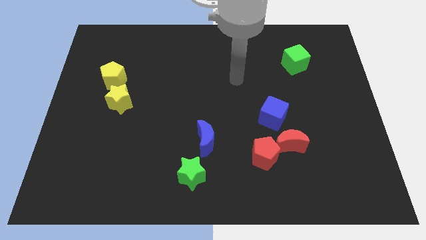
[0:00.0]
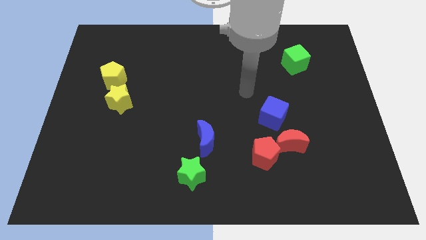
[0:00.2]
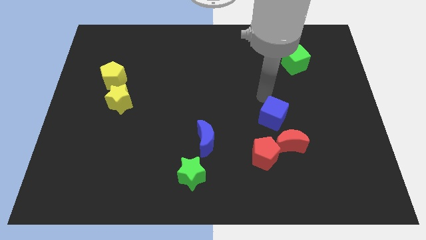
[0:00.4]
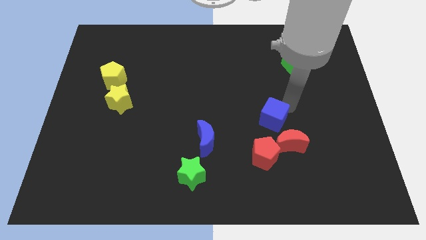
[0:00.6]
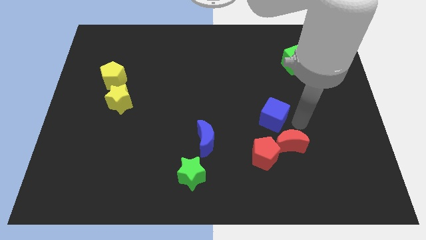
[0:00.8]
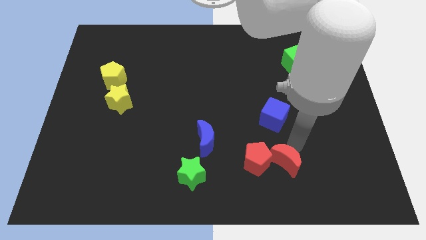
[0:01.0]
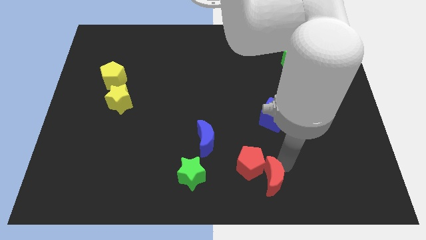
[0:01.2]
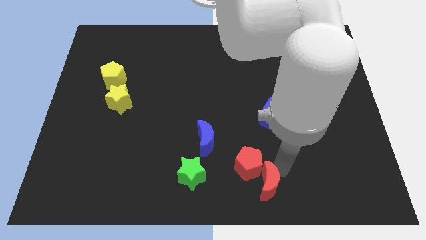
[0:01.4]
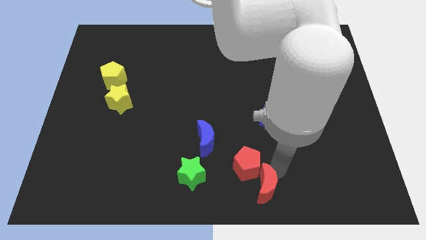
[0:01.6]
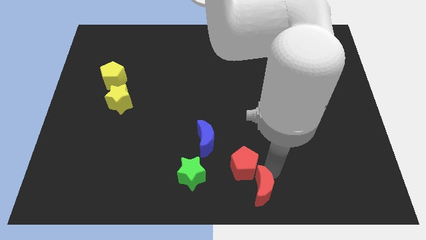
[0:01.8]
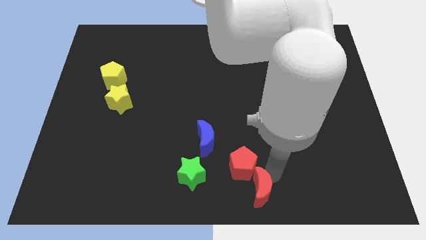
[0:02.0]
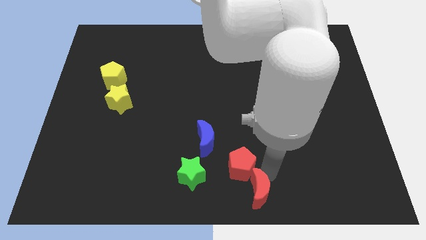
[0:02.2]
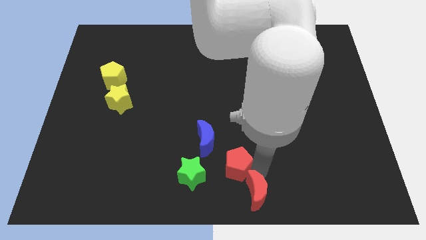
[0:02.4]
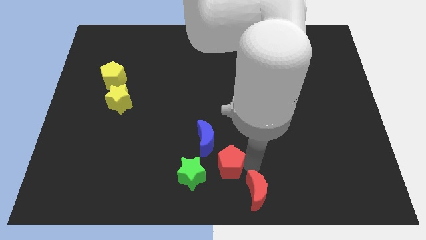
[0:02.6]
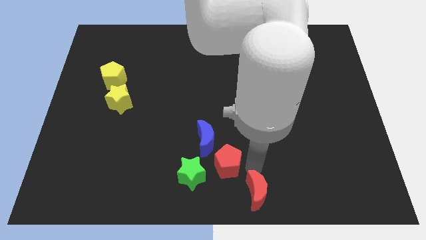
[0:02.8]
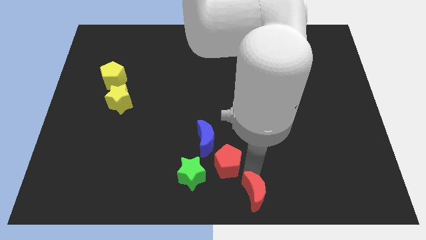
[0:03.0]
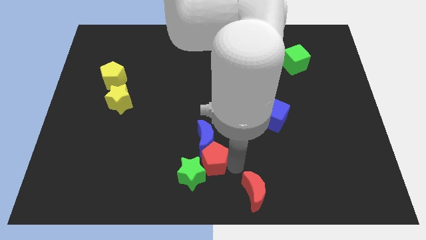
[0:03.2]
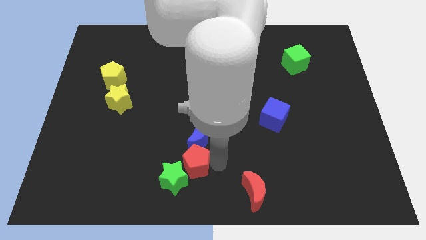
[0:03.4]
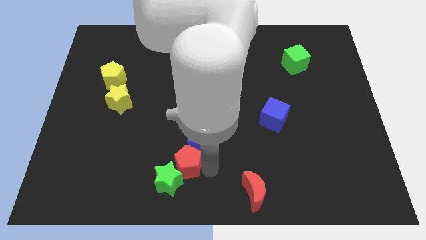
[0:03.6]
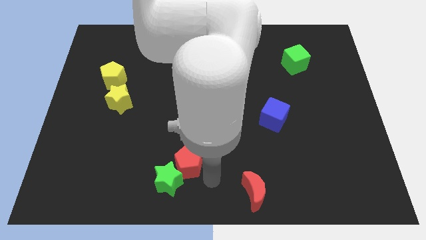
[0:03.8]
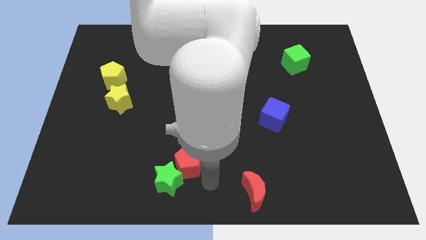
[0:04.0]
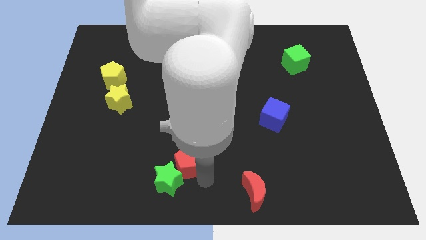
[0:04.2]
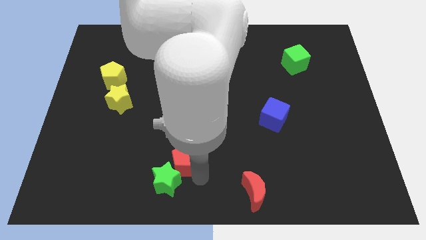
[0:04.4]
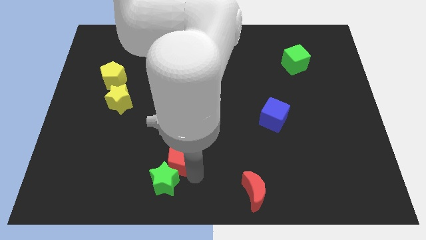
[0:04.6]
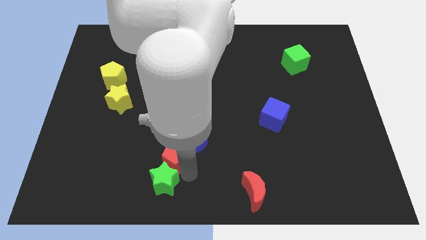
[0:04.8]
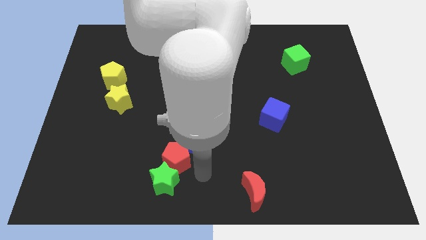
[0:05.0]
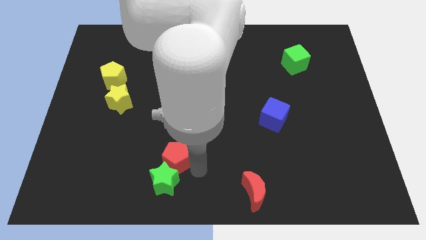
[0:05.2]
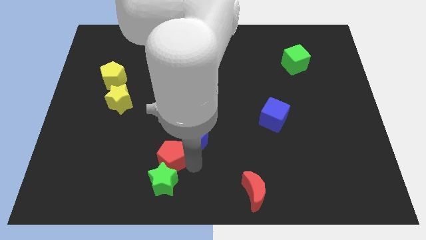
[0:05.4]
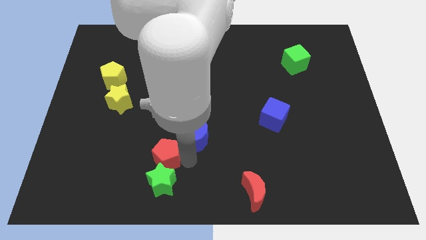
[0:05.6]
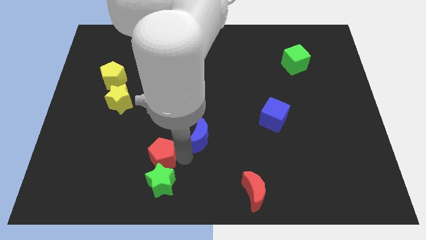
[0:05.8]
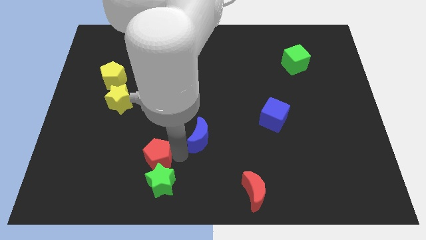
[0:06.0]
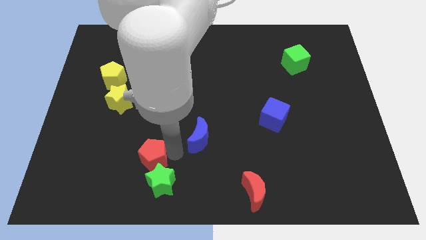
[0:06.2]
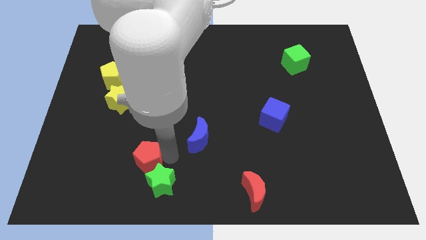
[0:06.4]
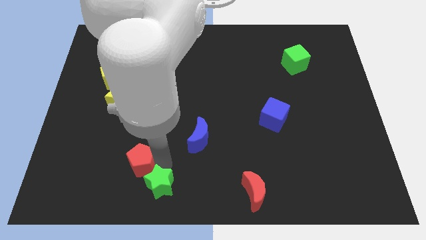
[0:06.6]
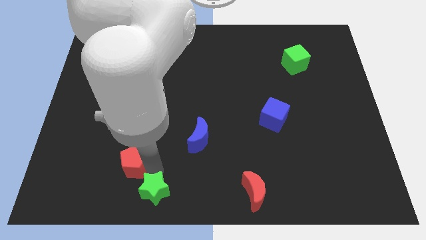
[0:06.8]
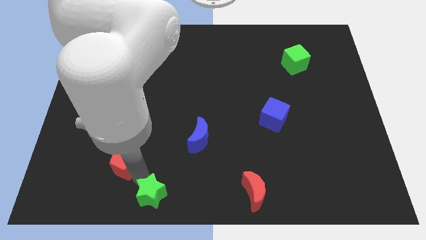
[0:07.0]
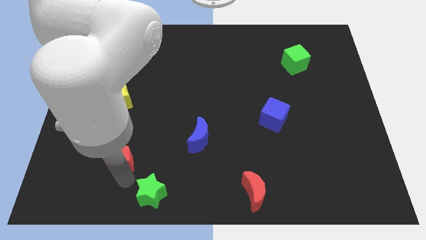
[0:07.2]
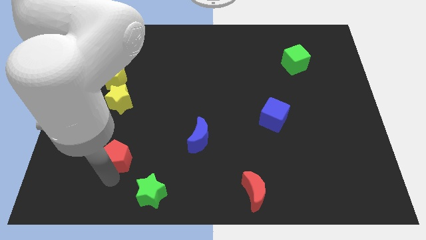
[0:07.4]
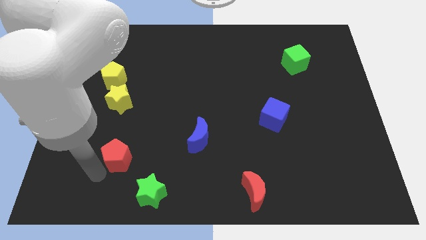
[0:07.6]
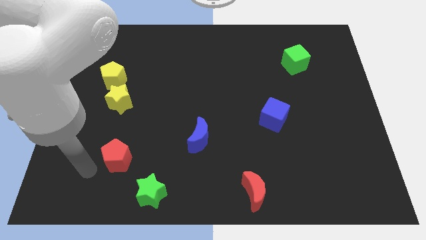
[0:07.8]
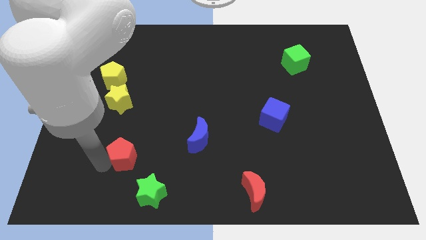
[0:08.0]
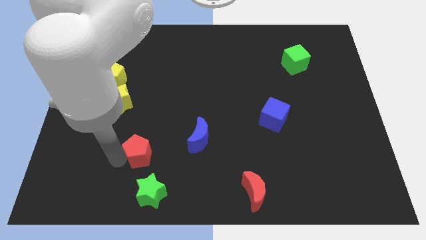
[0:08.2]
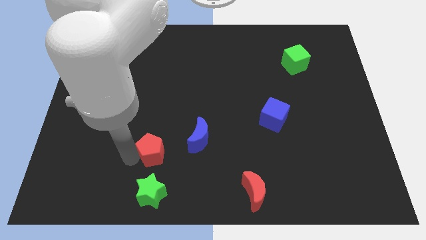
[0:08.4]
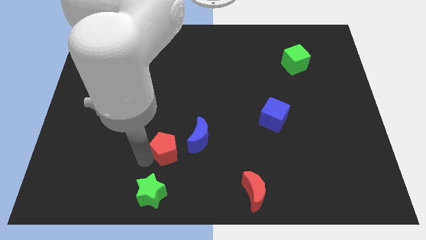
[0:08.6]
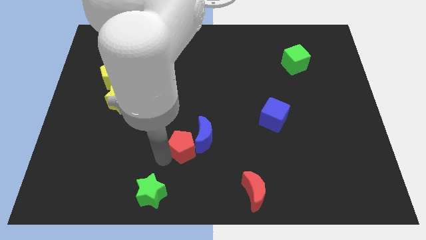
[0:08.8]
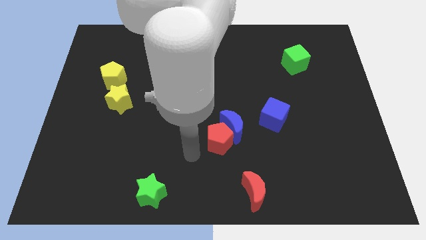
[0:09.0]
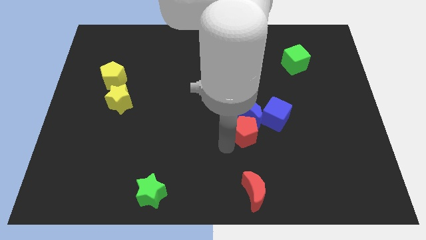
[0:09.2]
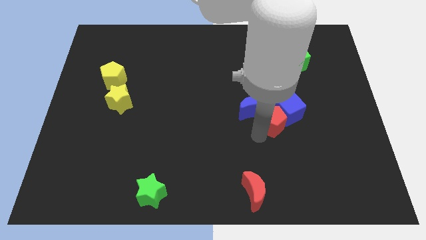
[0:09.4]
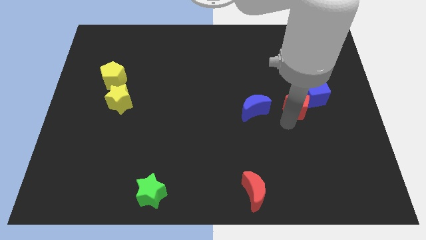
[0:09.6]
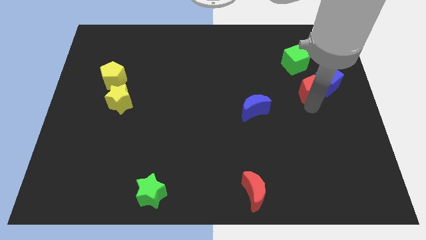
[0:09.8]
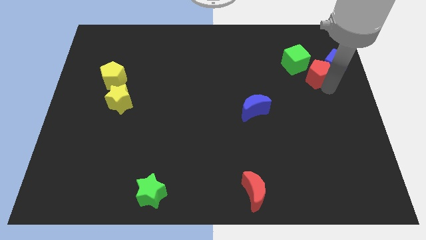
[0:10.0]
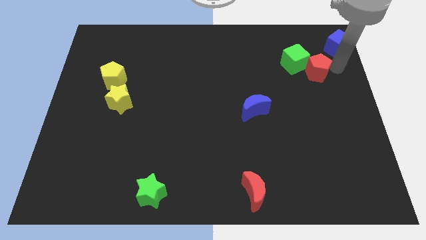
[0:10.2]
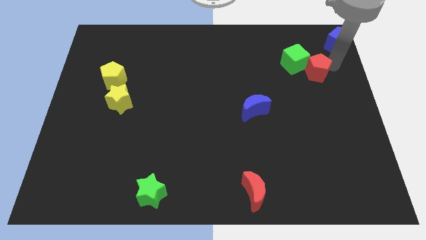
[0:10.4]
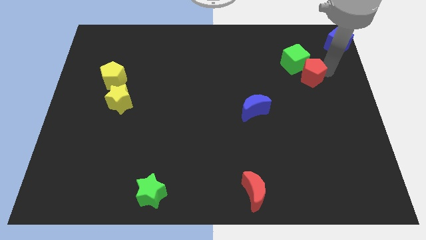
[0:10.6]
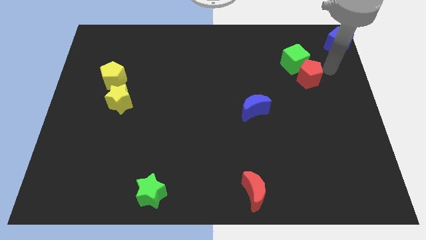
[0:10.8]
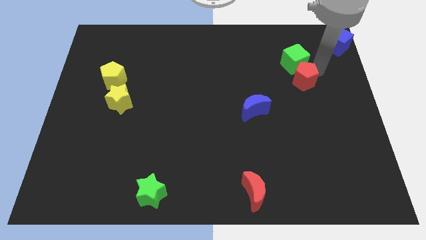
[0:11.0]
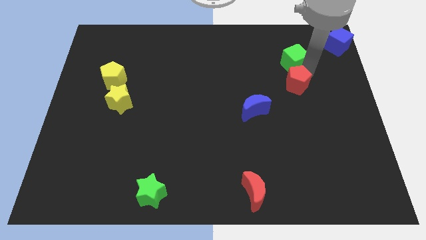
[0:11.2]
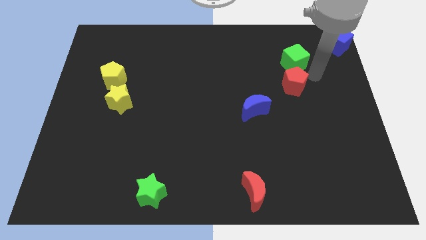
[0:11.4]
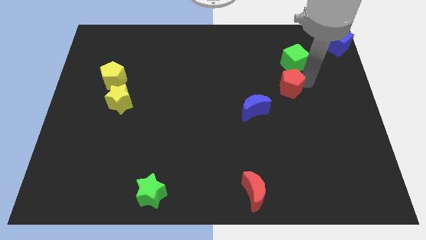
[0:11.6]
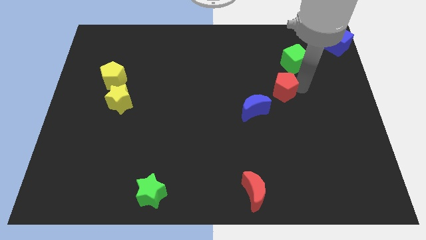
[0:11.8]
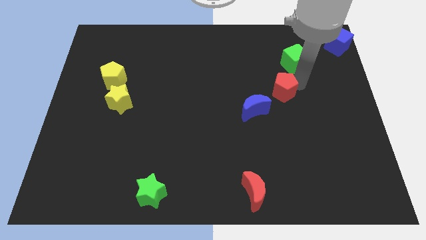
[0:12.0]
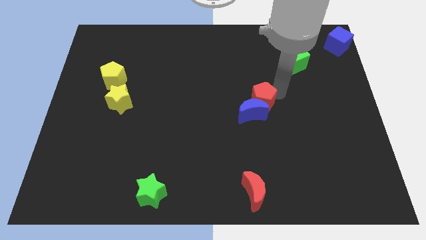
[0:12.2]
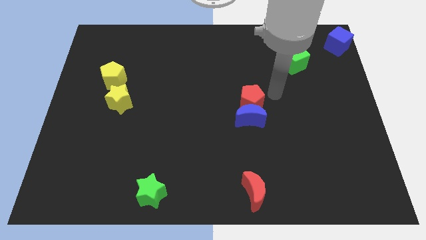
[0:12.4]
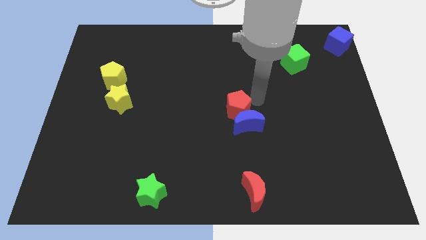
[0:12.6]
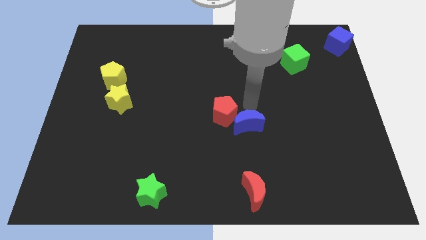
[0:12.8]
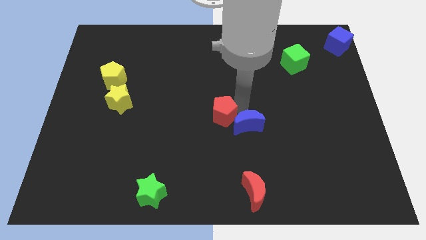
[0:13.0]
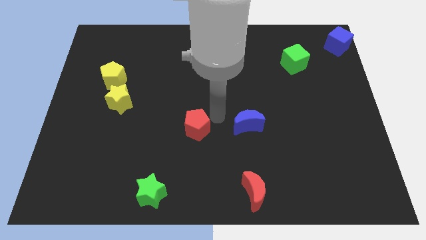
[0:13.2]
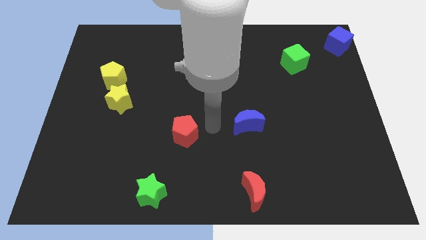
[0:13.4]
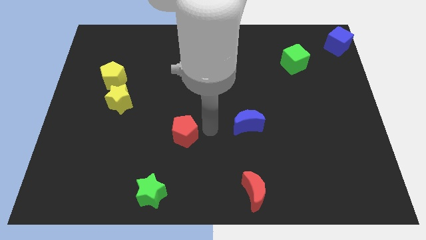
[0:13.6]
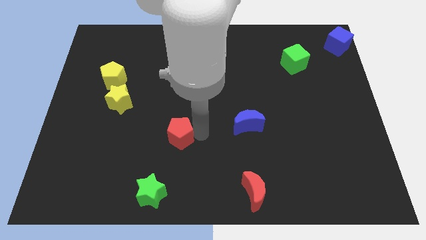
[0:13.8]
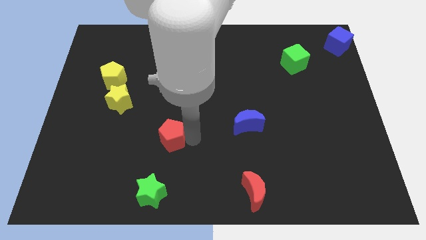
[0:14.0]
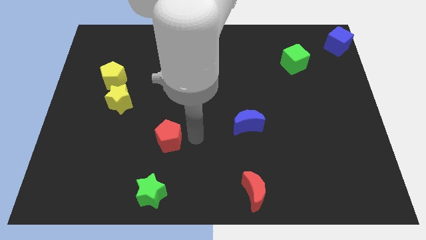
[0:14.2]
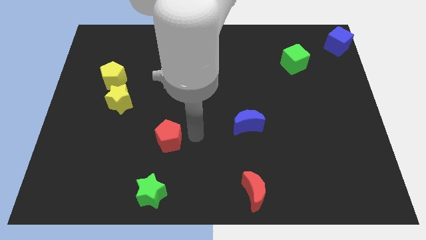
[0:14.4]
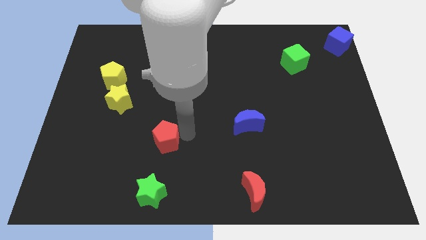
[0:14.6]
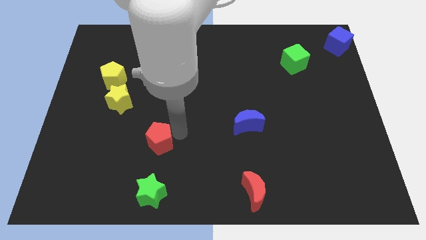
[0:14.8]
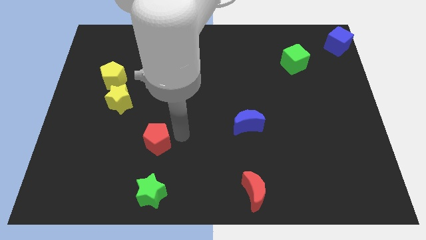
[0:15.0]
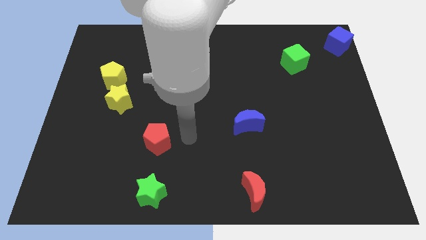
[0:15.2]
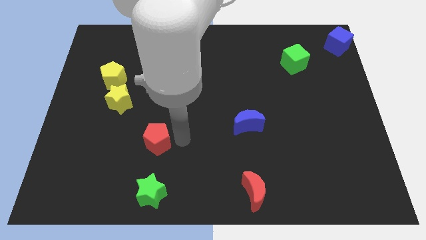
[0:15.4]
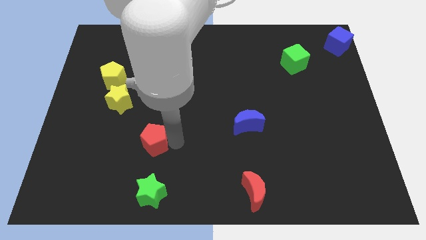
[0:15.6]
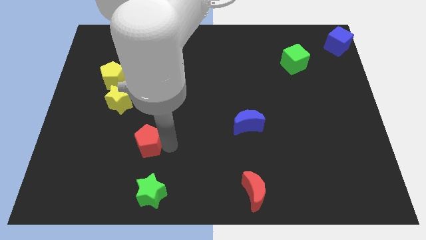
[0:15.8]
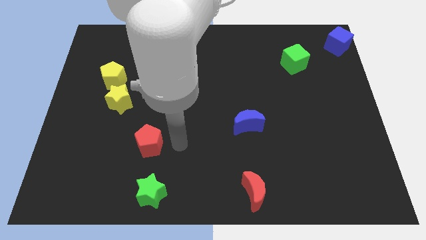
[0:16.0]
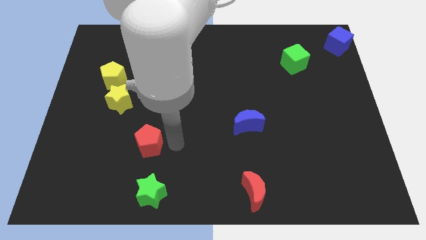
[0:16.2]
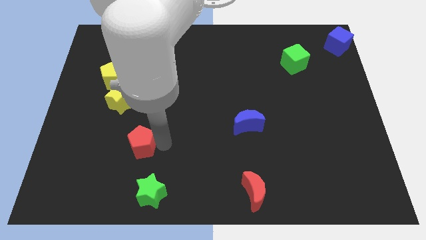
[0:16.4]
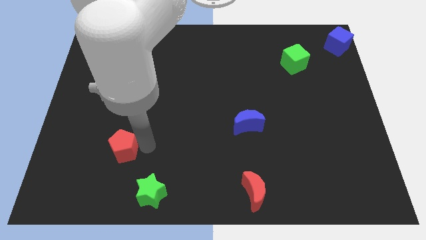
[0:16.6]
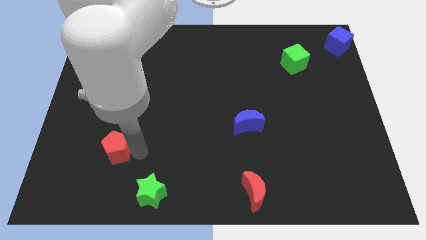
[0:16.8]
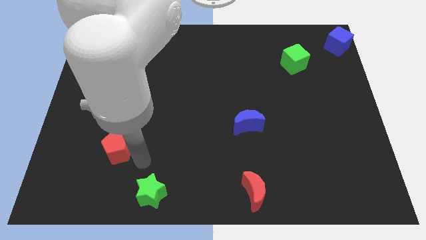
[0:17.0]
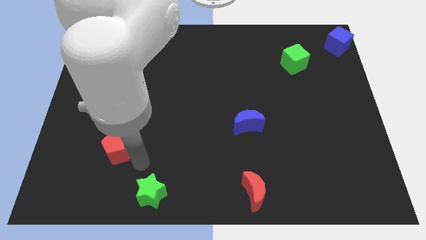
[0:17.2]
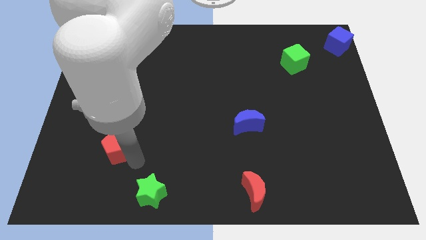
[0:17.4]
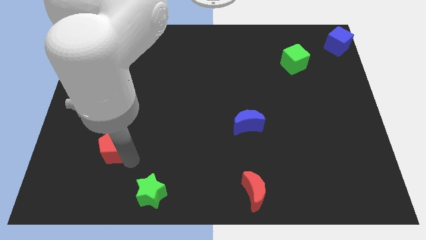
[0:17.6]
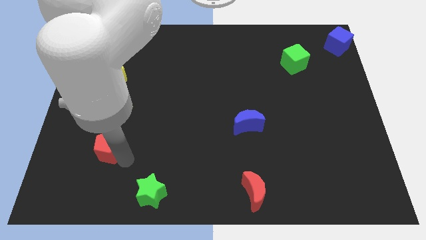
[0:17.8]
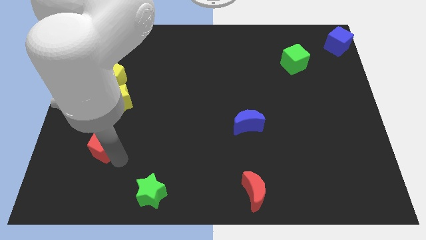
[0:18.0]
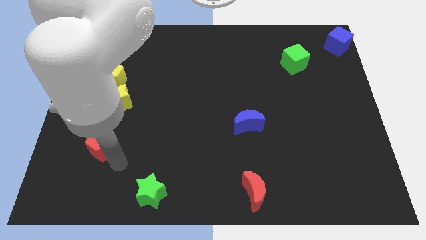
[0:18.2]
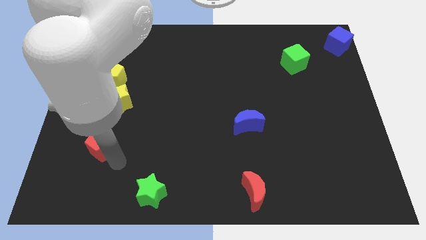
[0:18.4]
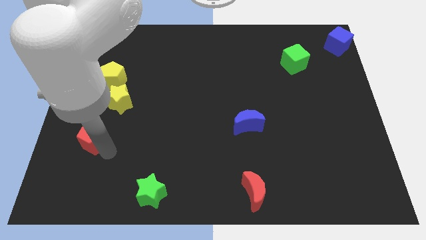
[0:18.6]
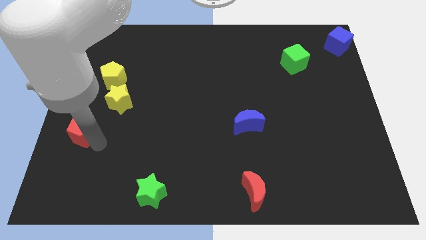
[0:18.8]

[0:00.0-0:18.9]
slide the red pentagon to the left side
